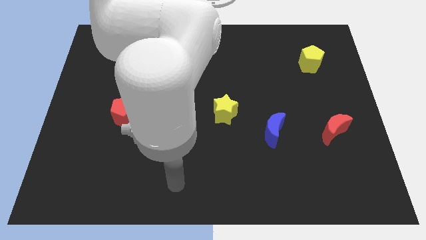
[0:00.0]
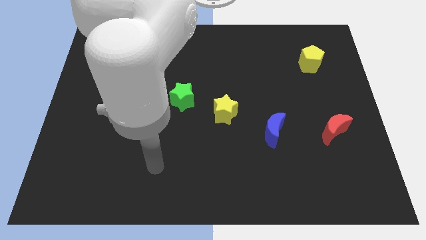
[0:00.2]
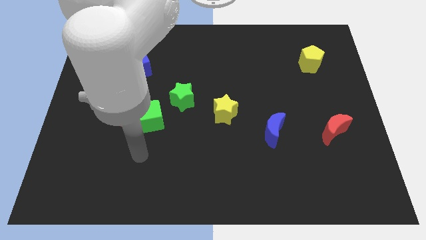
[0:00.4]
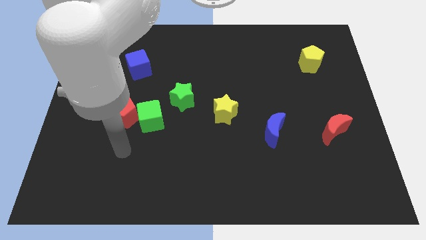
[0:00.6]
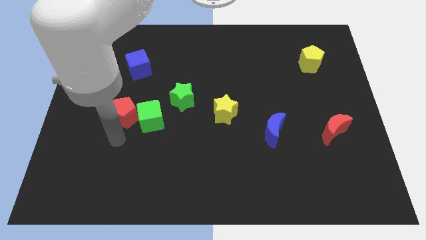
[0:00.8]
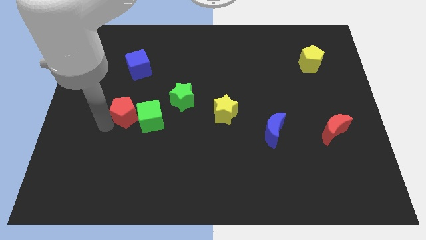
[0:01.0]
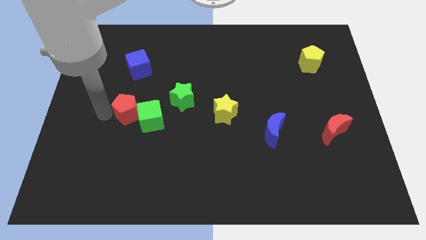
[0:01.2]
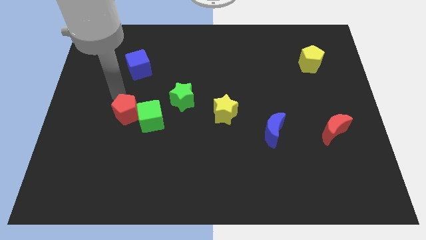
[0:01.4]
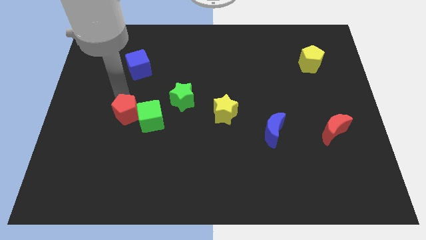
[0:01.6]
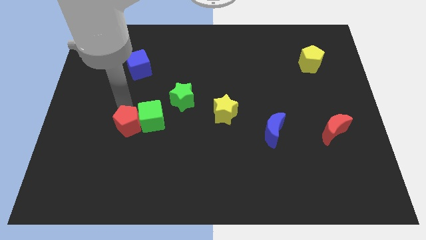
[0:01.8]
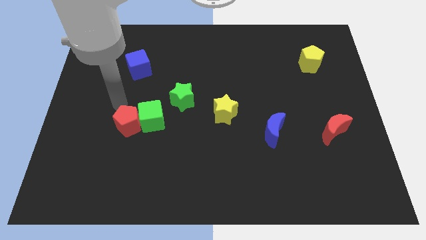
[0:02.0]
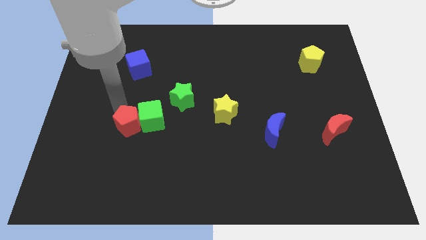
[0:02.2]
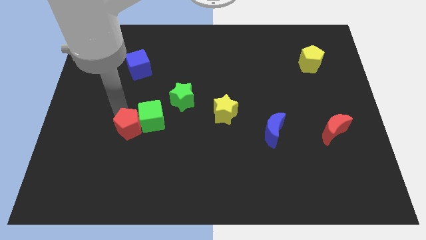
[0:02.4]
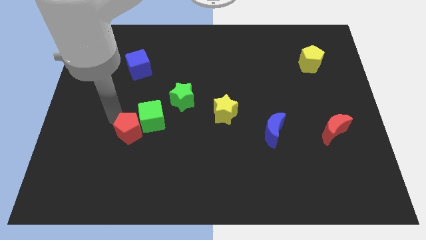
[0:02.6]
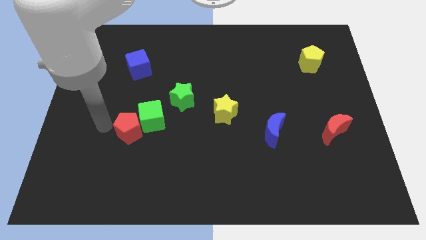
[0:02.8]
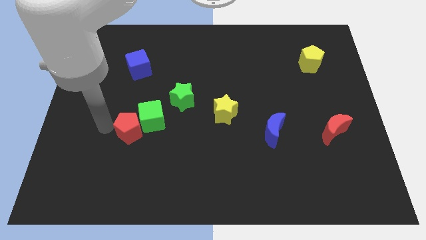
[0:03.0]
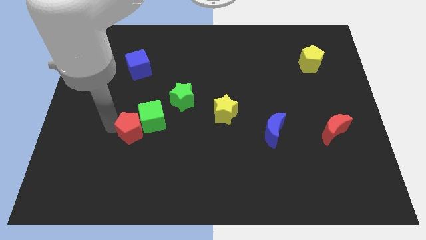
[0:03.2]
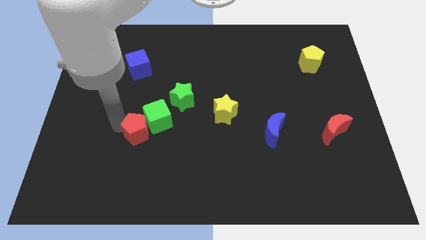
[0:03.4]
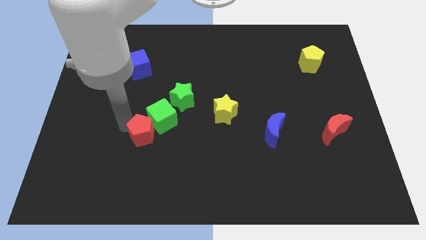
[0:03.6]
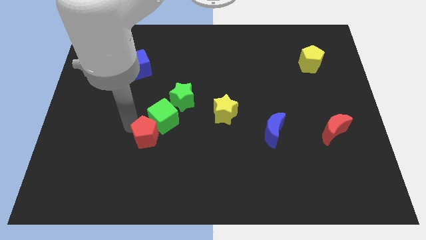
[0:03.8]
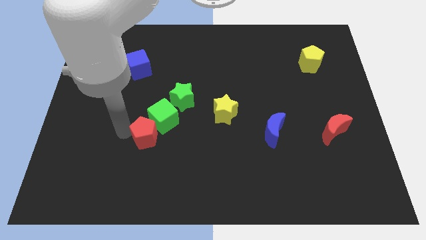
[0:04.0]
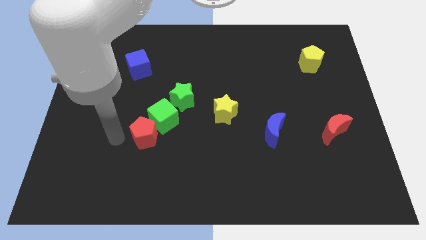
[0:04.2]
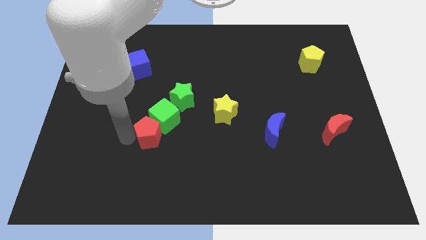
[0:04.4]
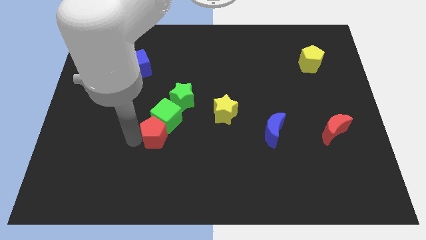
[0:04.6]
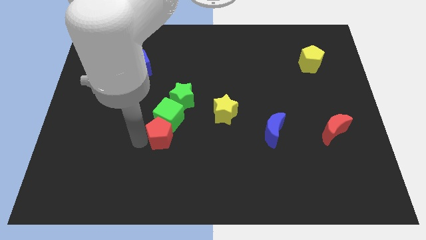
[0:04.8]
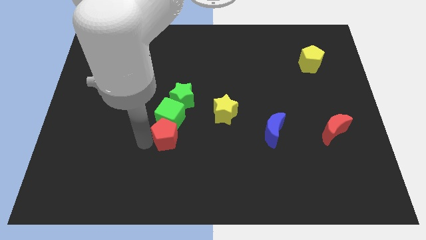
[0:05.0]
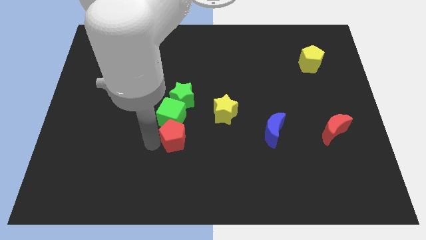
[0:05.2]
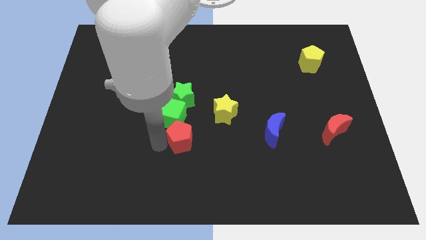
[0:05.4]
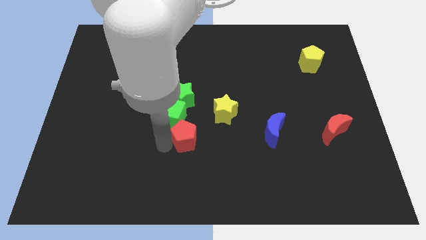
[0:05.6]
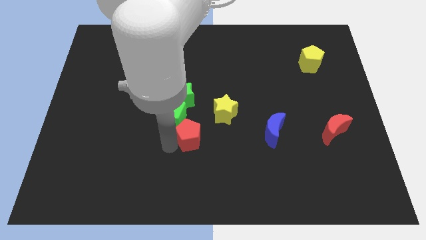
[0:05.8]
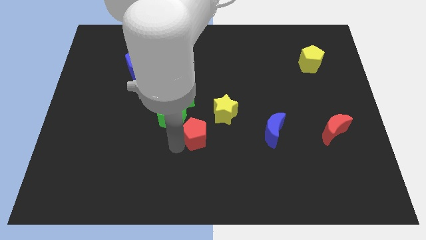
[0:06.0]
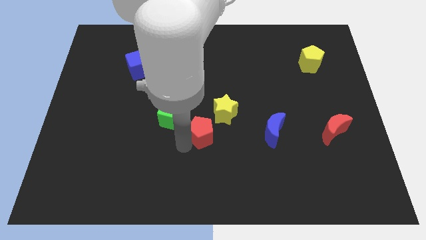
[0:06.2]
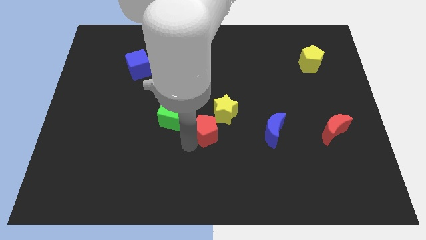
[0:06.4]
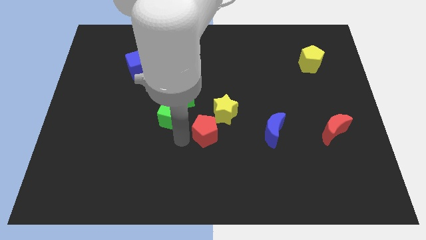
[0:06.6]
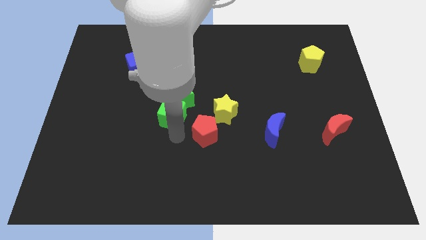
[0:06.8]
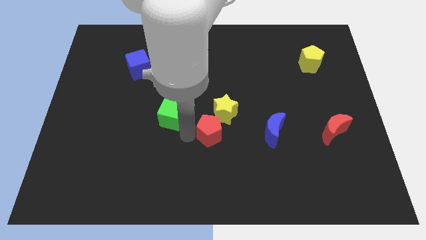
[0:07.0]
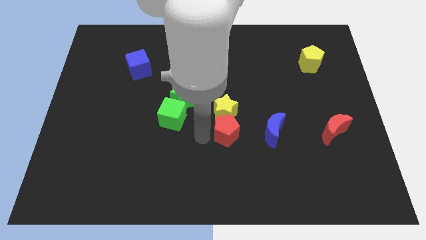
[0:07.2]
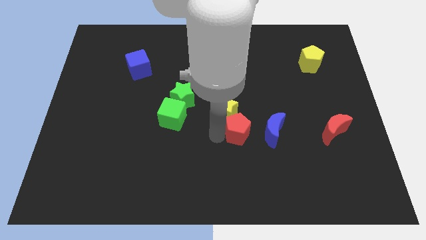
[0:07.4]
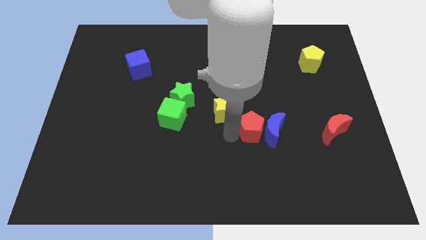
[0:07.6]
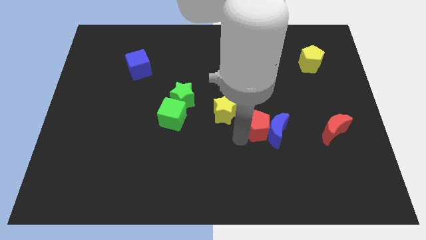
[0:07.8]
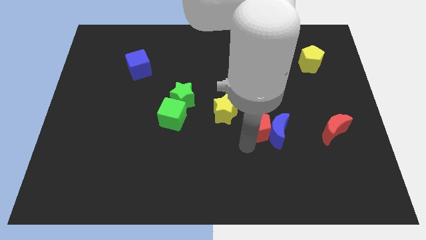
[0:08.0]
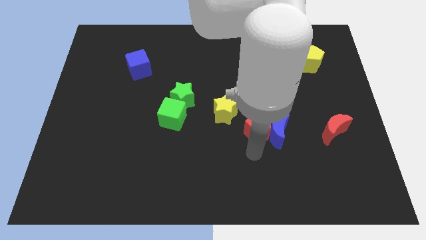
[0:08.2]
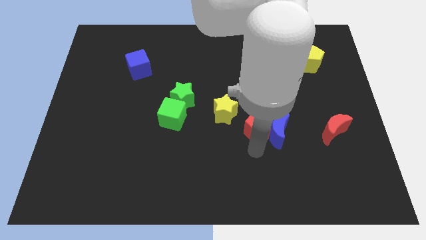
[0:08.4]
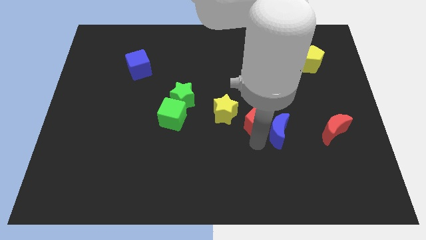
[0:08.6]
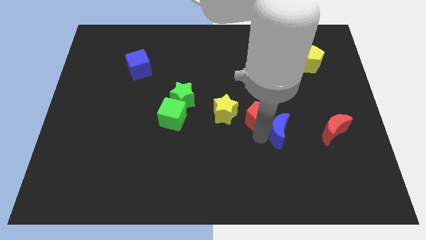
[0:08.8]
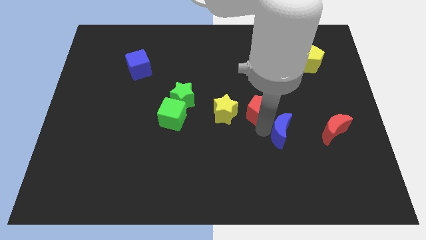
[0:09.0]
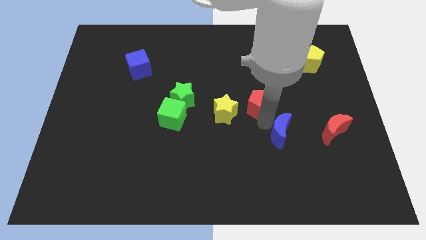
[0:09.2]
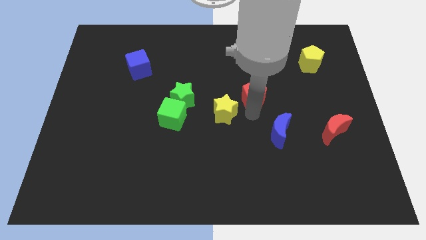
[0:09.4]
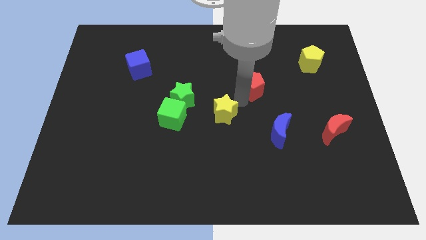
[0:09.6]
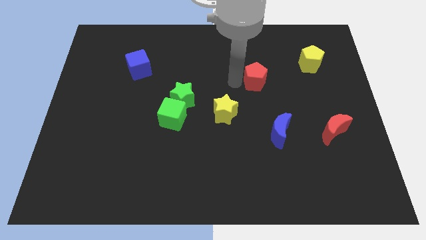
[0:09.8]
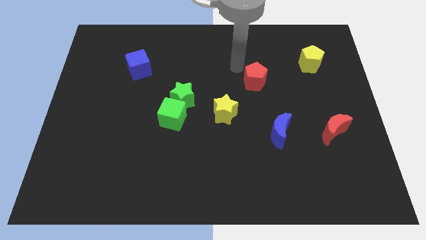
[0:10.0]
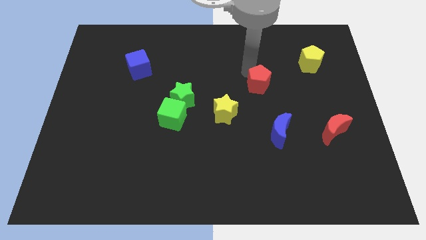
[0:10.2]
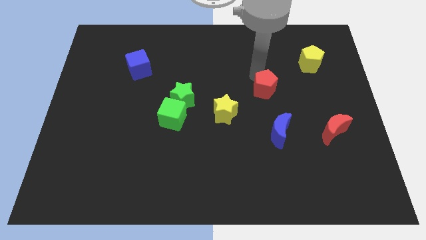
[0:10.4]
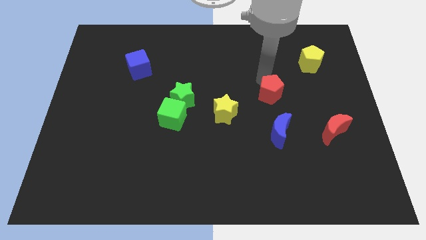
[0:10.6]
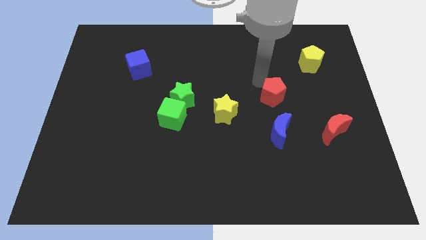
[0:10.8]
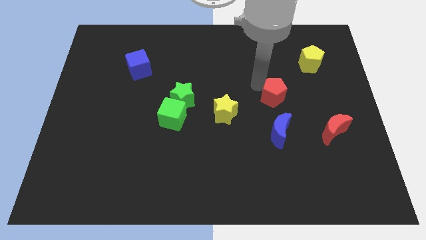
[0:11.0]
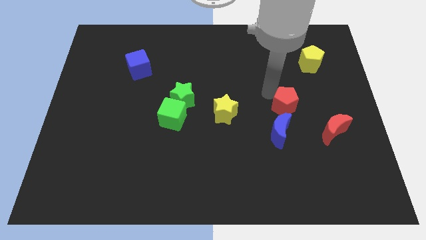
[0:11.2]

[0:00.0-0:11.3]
move the red pentagon to the top right side of the blue moon

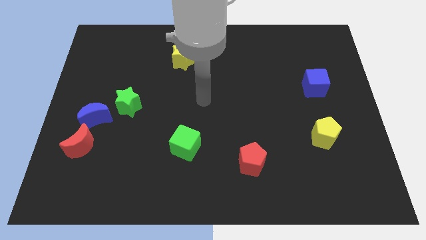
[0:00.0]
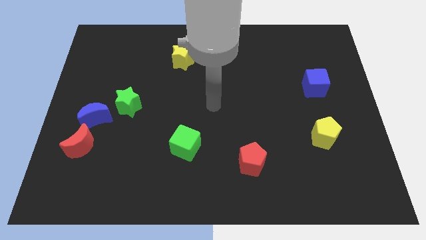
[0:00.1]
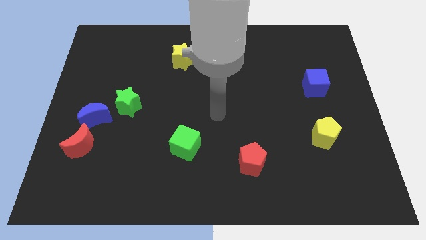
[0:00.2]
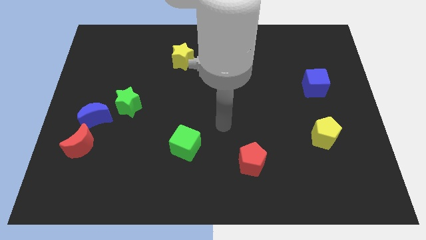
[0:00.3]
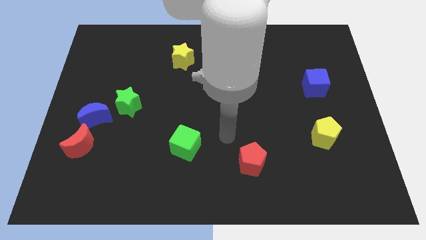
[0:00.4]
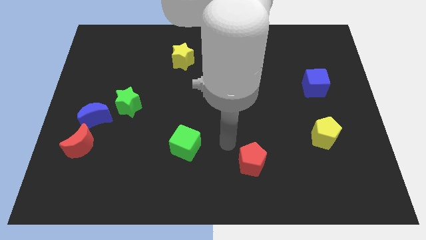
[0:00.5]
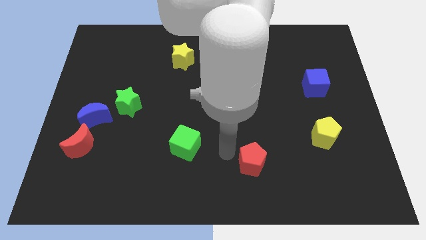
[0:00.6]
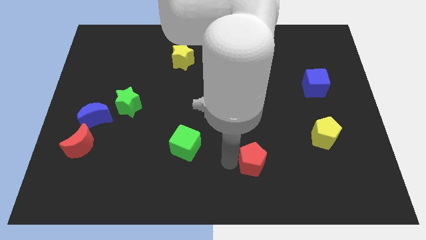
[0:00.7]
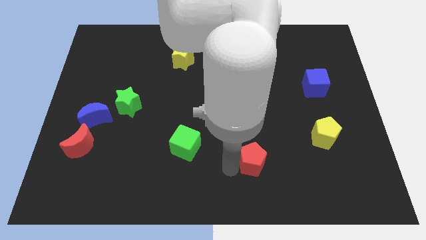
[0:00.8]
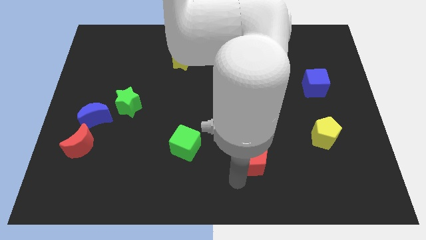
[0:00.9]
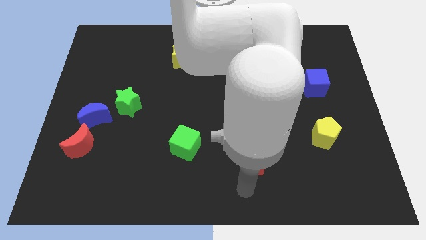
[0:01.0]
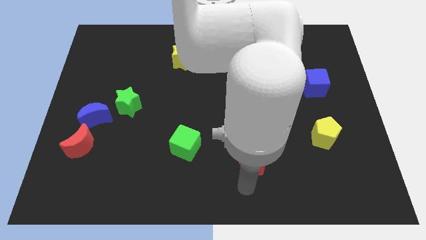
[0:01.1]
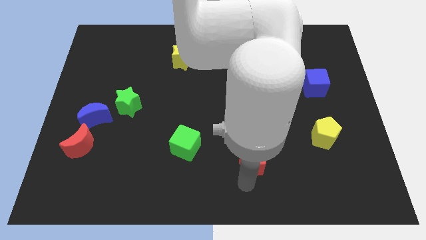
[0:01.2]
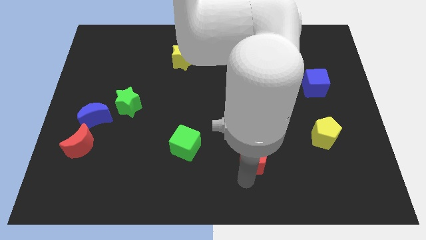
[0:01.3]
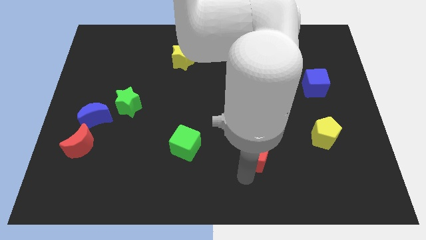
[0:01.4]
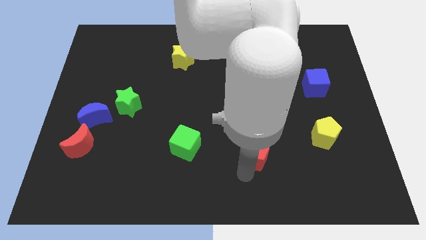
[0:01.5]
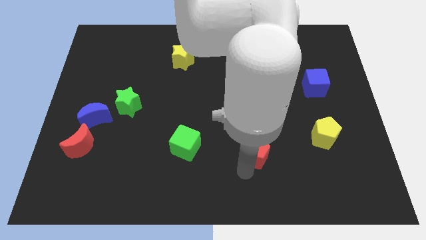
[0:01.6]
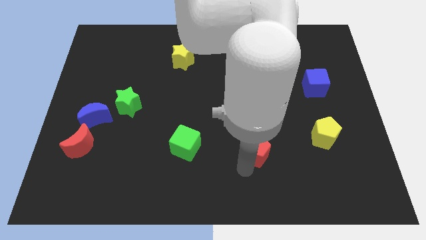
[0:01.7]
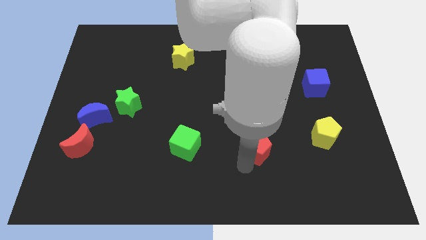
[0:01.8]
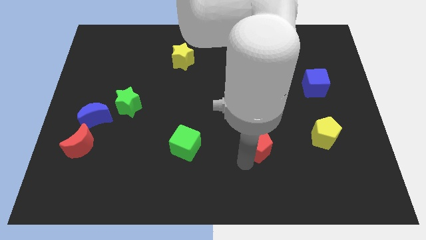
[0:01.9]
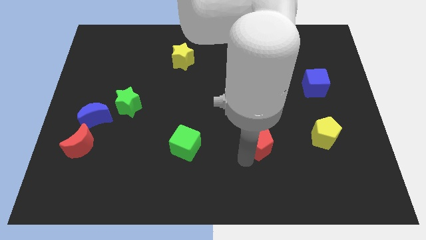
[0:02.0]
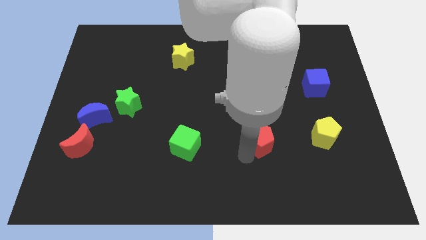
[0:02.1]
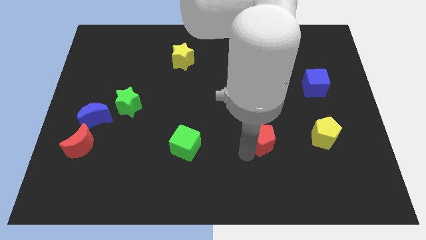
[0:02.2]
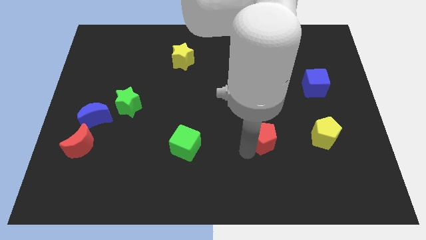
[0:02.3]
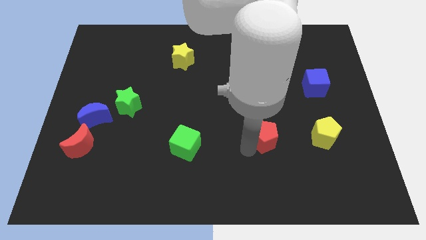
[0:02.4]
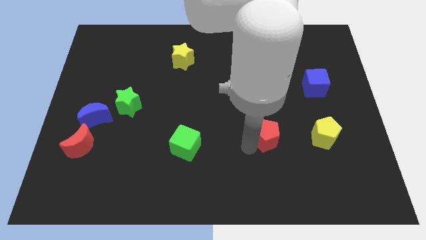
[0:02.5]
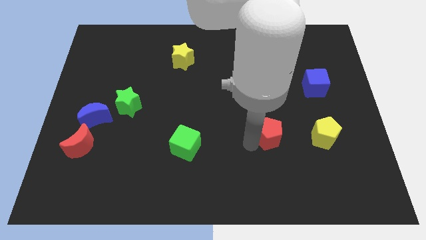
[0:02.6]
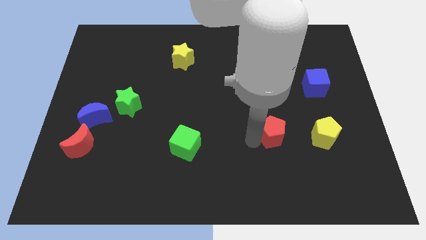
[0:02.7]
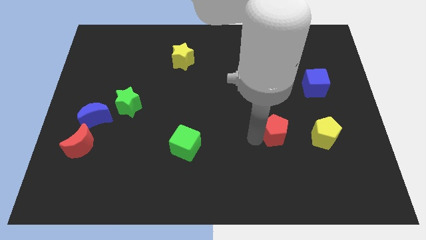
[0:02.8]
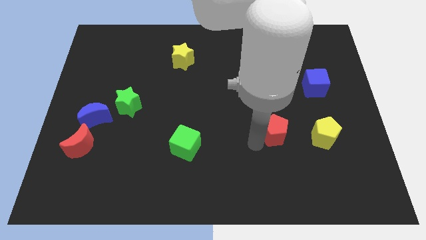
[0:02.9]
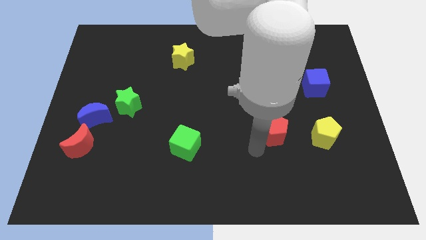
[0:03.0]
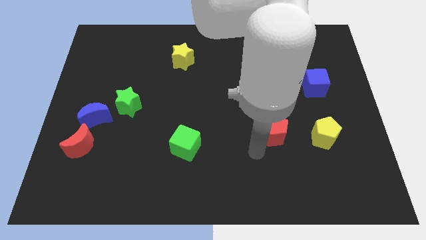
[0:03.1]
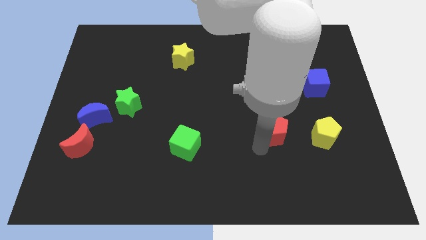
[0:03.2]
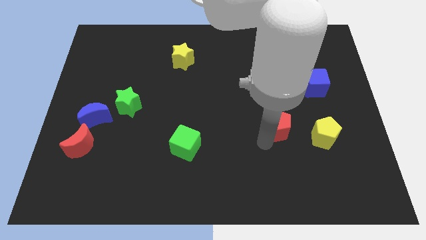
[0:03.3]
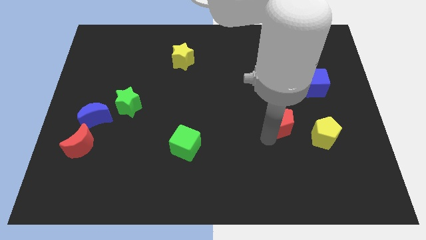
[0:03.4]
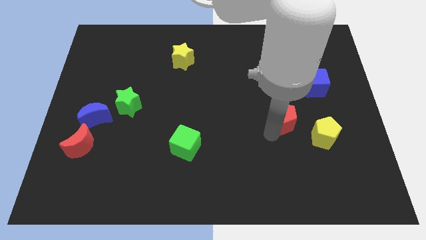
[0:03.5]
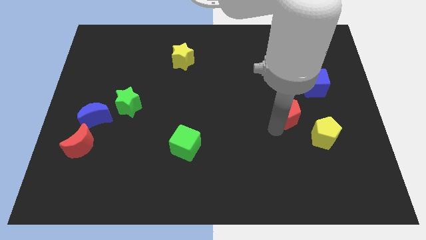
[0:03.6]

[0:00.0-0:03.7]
move the red pentagon to the bottom left side of the blue cube
